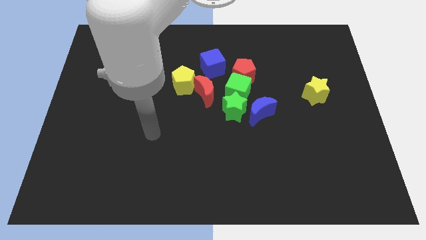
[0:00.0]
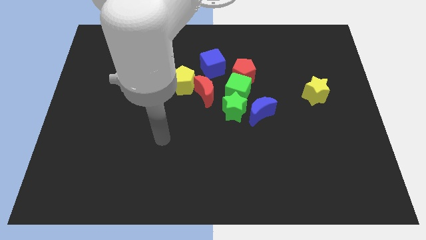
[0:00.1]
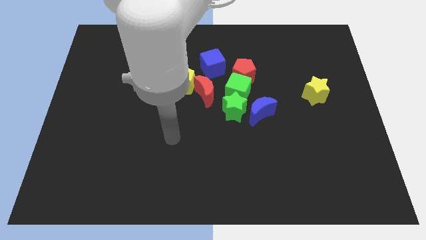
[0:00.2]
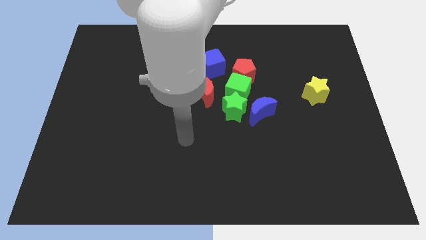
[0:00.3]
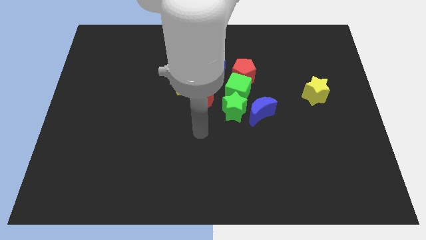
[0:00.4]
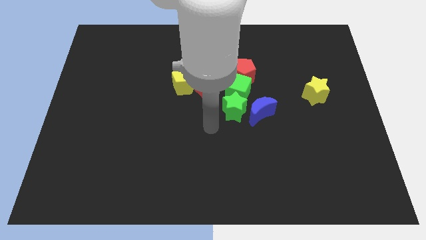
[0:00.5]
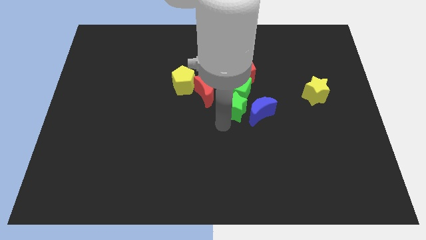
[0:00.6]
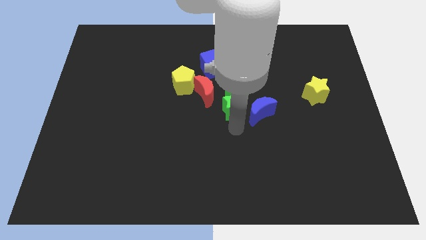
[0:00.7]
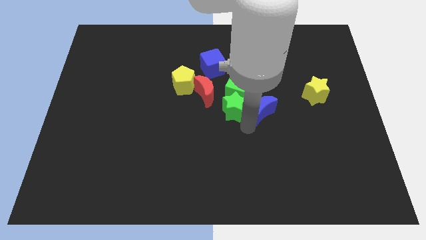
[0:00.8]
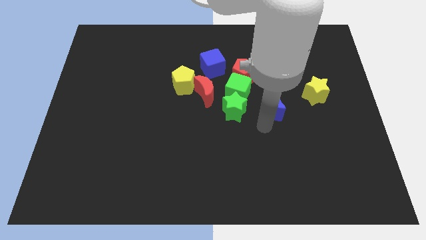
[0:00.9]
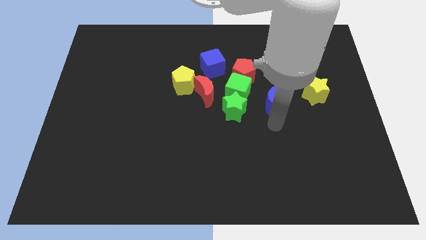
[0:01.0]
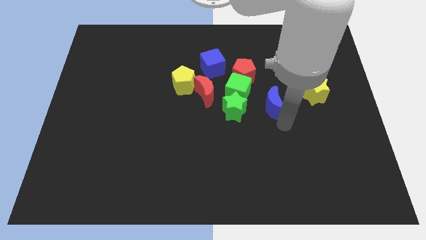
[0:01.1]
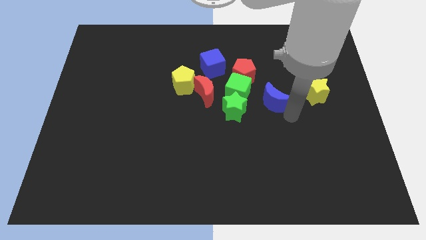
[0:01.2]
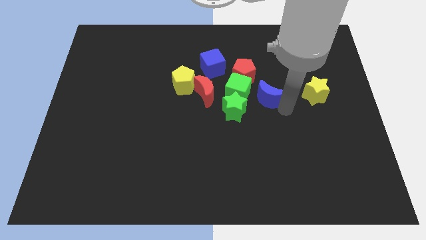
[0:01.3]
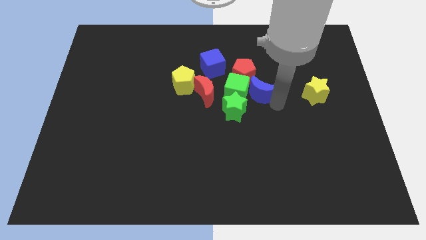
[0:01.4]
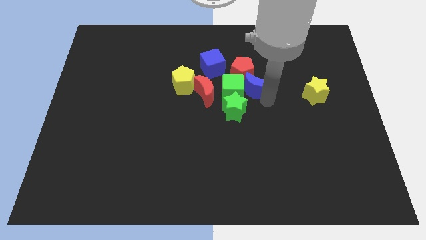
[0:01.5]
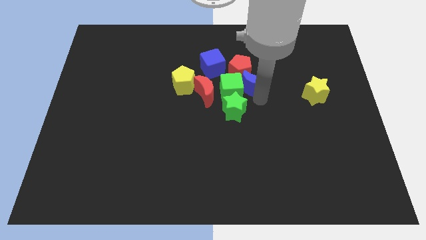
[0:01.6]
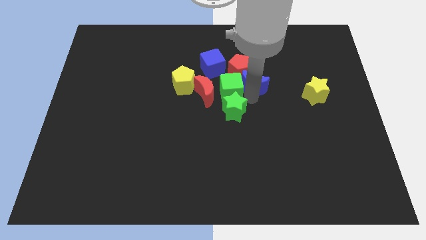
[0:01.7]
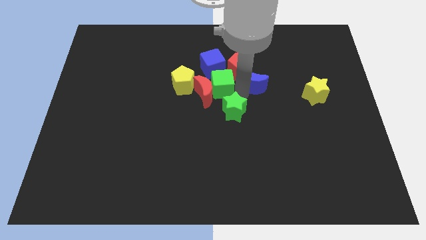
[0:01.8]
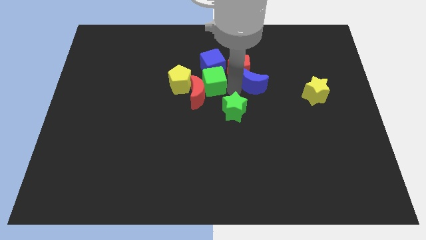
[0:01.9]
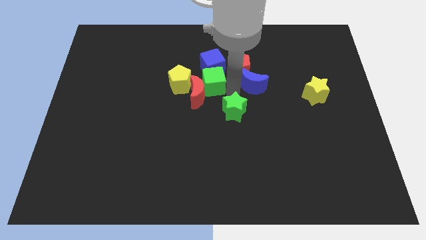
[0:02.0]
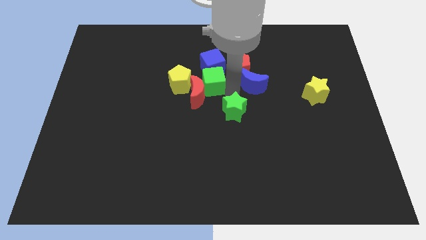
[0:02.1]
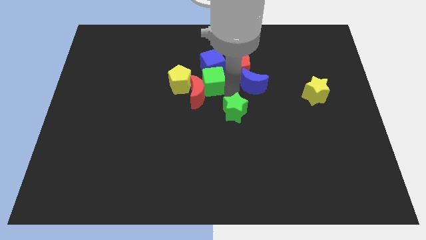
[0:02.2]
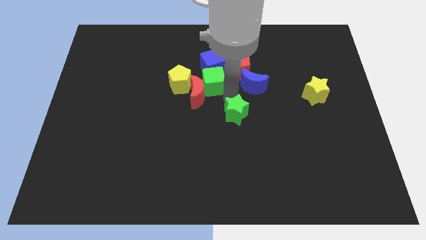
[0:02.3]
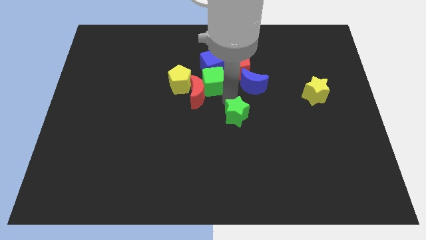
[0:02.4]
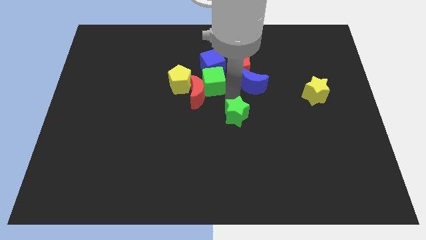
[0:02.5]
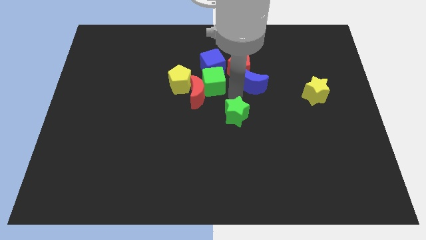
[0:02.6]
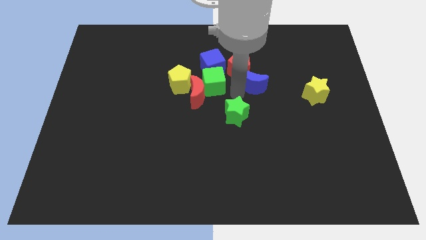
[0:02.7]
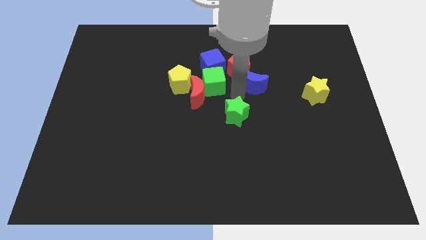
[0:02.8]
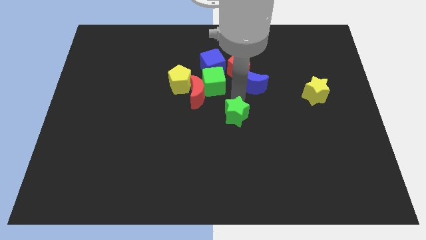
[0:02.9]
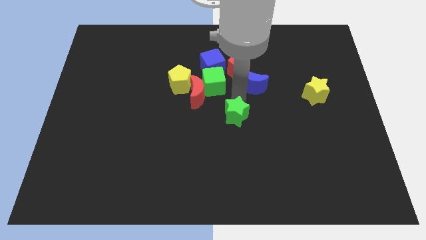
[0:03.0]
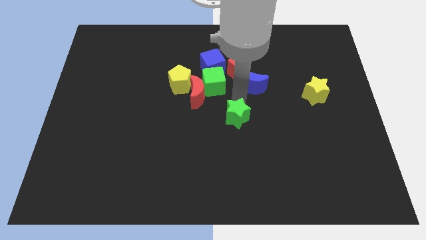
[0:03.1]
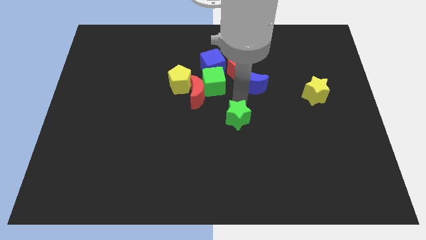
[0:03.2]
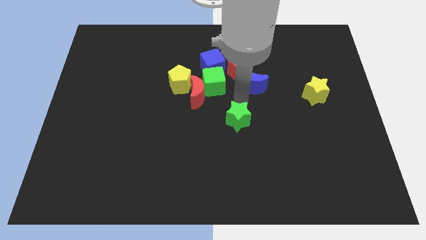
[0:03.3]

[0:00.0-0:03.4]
separate the green star from the green cube, blue moon, and red moon

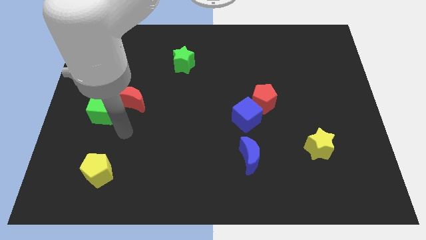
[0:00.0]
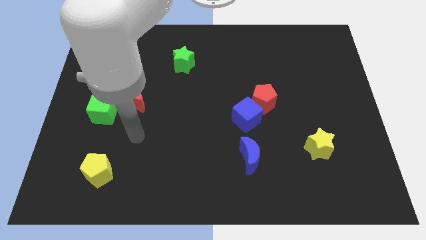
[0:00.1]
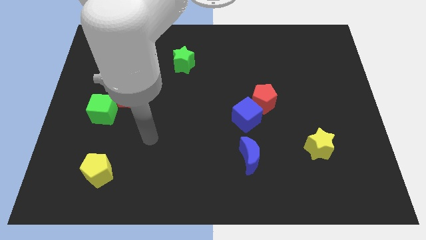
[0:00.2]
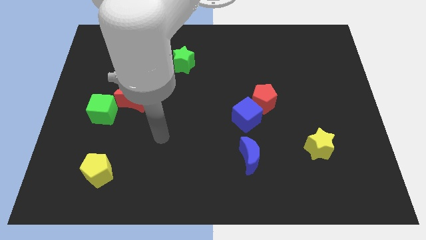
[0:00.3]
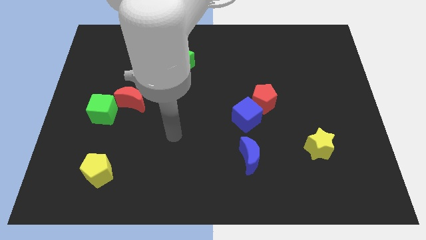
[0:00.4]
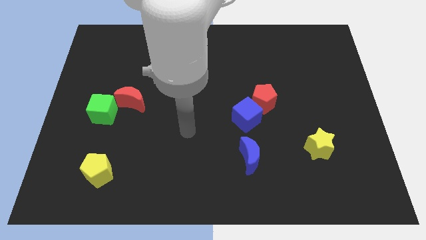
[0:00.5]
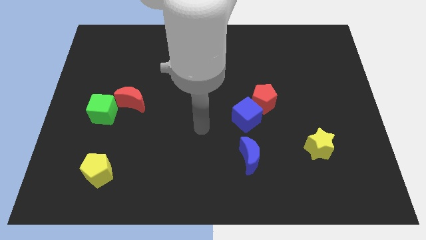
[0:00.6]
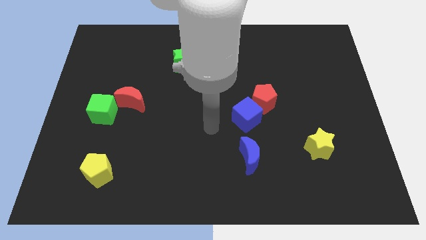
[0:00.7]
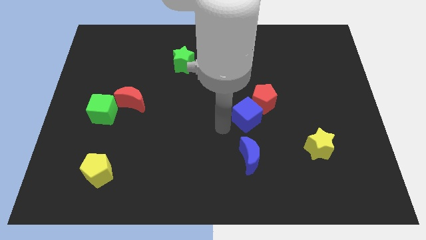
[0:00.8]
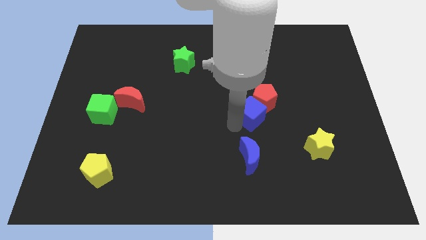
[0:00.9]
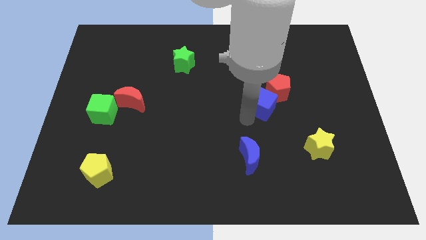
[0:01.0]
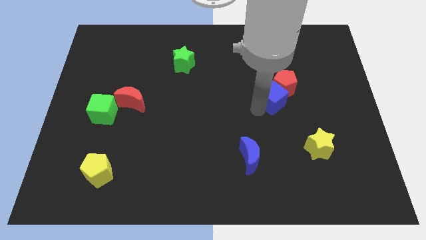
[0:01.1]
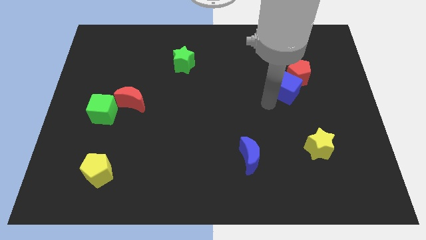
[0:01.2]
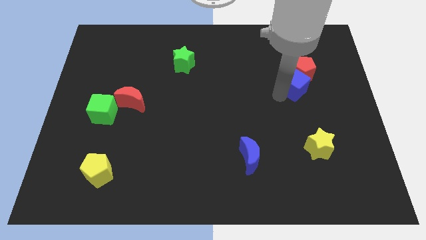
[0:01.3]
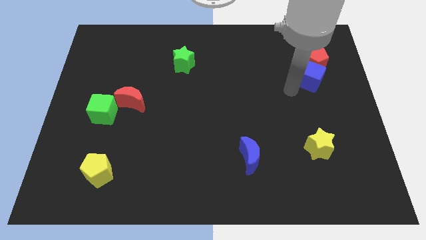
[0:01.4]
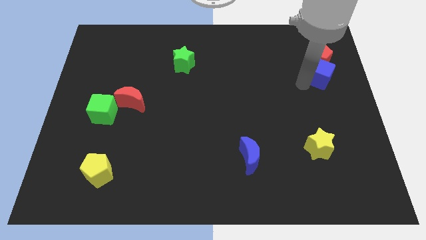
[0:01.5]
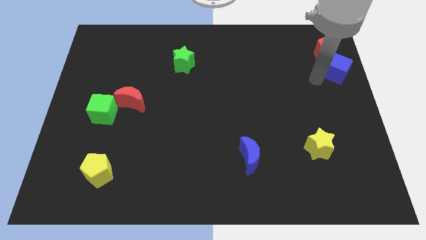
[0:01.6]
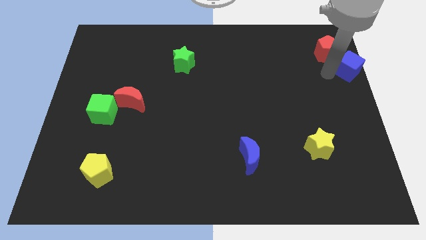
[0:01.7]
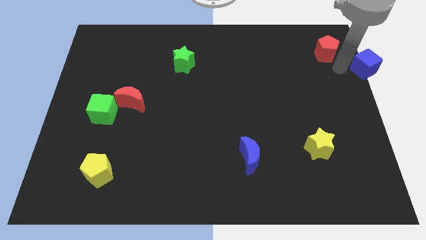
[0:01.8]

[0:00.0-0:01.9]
move the red pentagon away from the blue cube

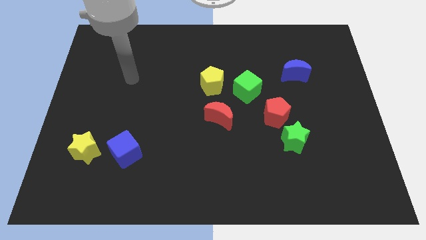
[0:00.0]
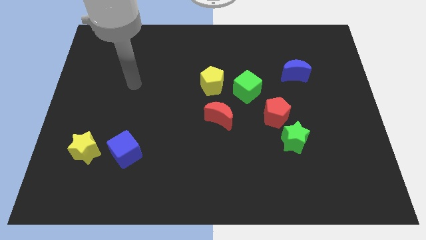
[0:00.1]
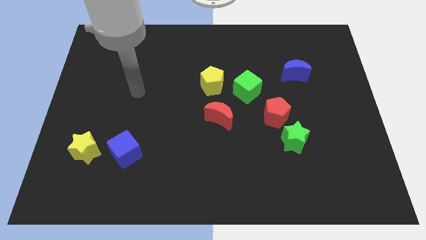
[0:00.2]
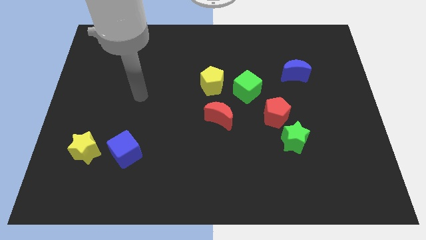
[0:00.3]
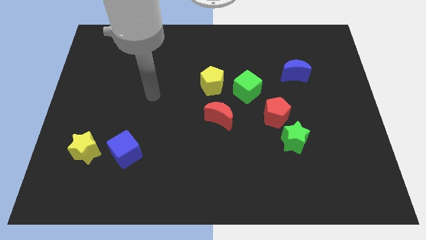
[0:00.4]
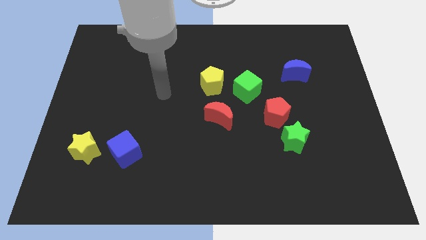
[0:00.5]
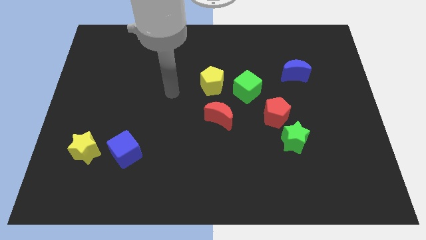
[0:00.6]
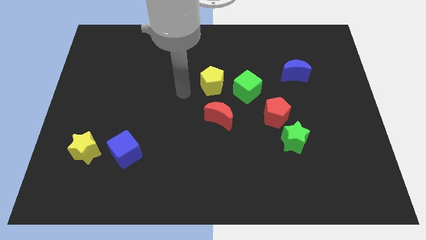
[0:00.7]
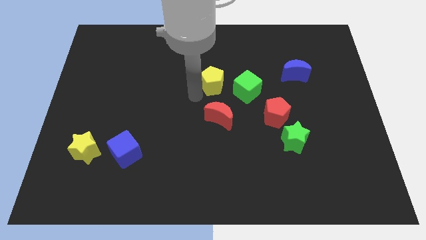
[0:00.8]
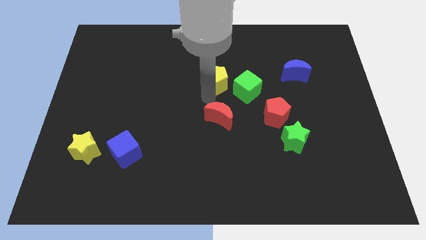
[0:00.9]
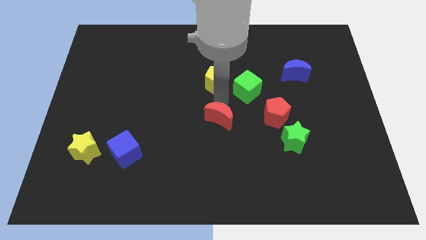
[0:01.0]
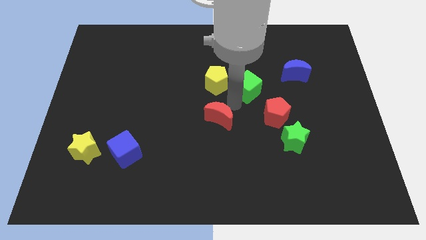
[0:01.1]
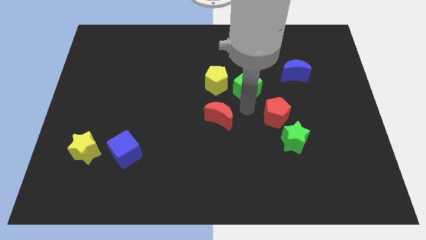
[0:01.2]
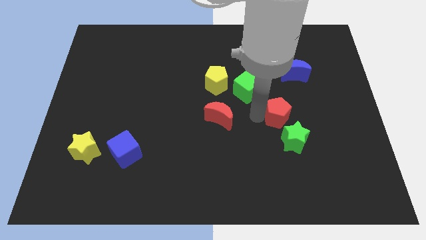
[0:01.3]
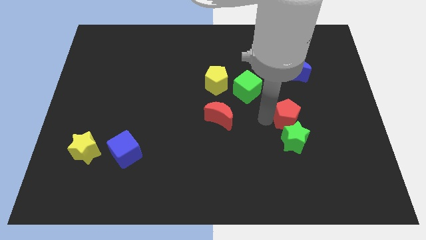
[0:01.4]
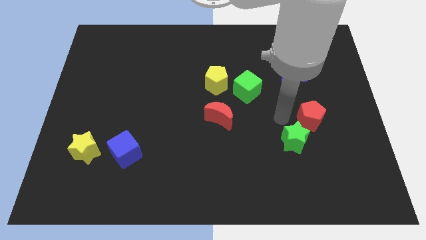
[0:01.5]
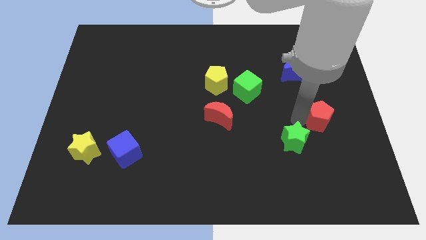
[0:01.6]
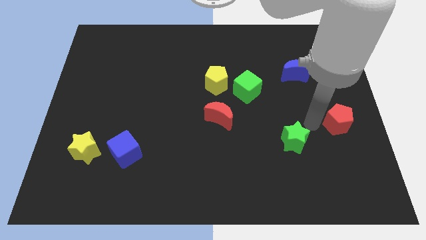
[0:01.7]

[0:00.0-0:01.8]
separate the green star from the red pentagon

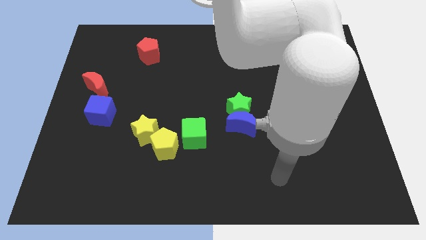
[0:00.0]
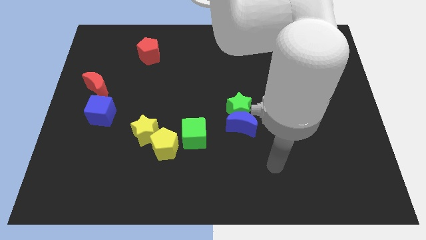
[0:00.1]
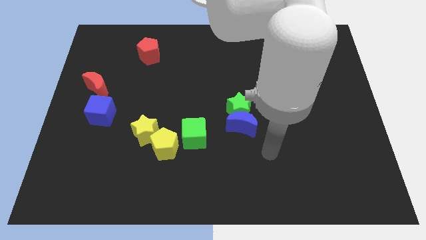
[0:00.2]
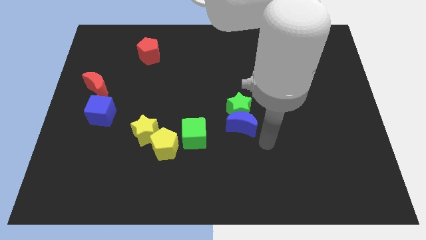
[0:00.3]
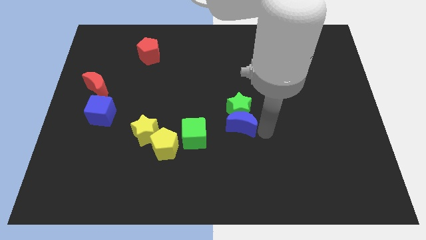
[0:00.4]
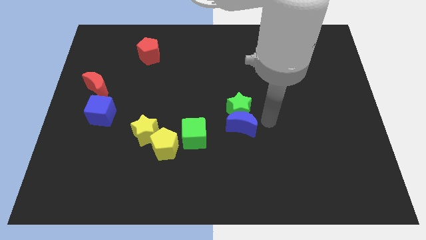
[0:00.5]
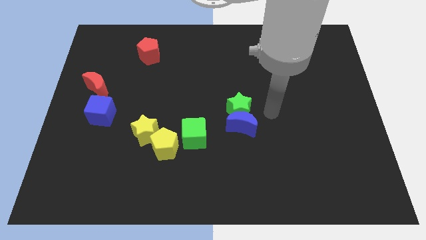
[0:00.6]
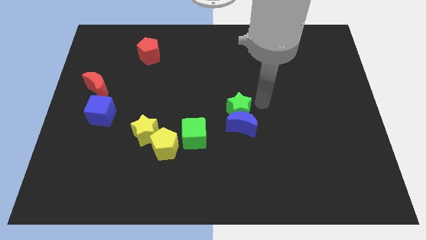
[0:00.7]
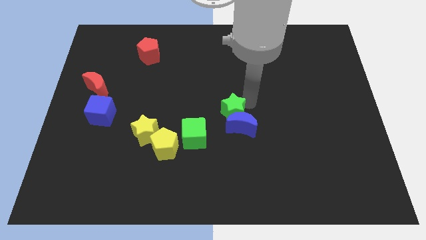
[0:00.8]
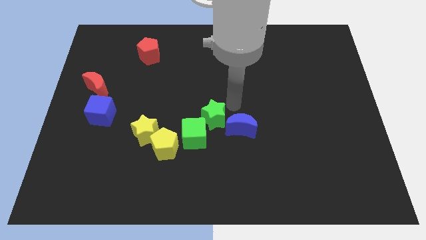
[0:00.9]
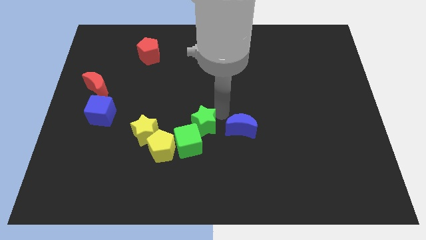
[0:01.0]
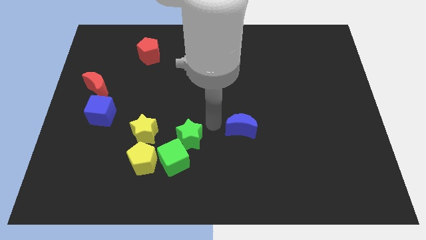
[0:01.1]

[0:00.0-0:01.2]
move the blue moon away from the green star

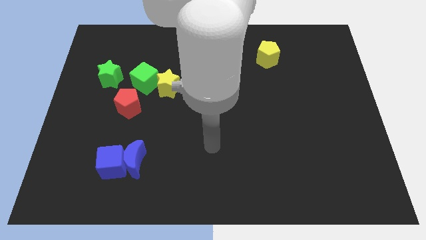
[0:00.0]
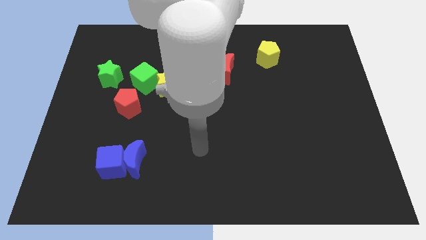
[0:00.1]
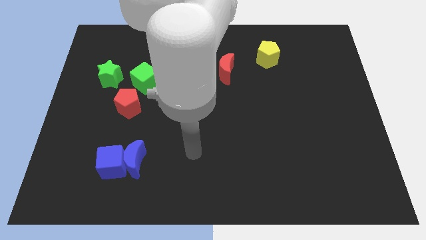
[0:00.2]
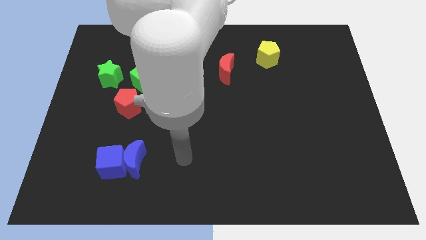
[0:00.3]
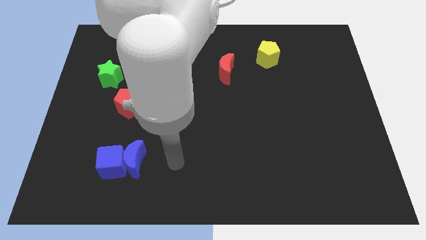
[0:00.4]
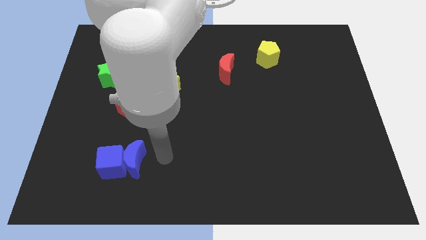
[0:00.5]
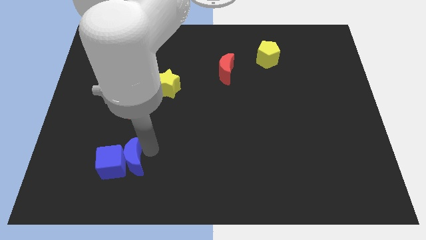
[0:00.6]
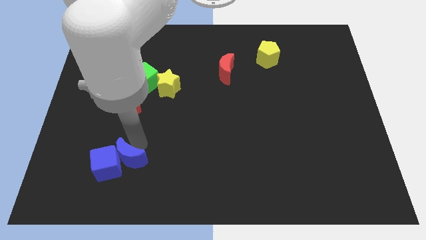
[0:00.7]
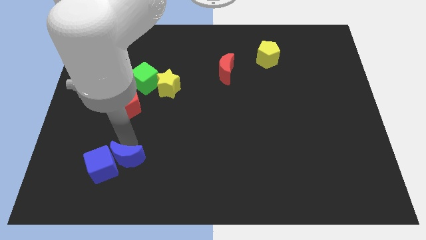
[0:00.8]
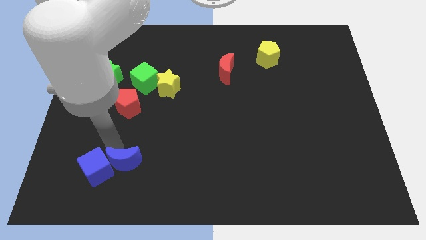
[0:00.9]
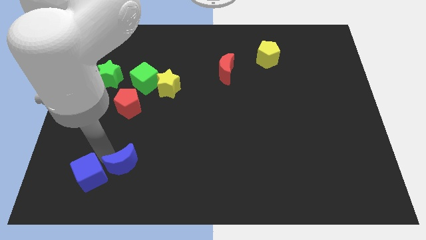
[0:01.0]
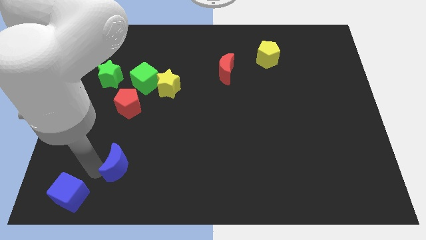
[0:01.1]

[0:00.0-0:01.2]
pull the blue moon apart from the blue cube
